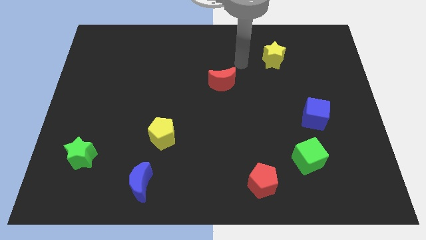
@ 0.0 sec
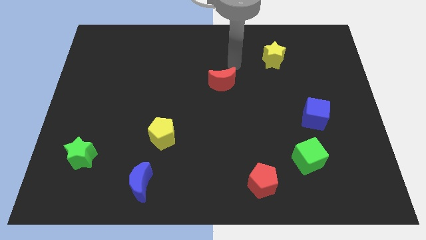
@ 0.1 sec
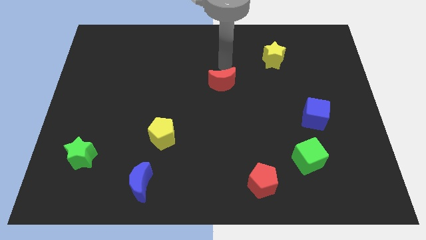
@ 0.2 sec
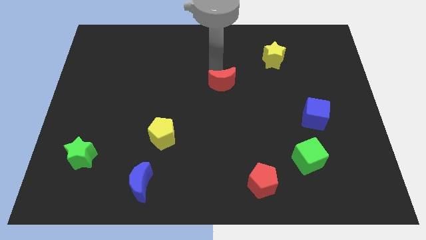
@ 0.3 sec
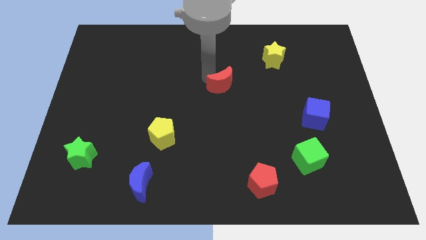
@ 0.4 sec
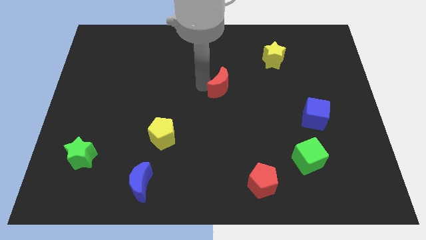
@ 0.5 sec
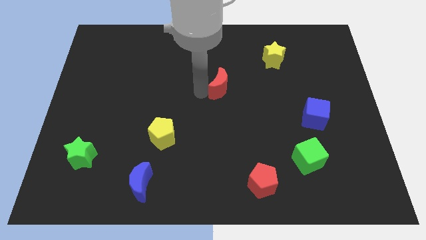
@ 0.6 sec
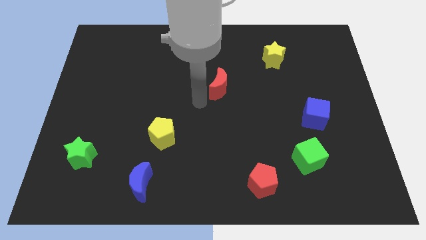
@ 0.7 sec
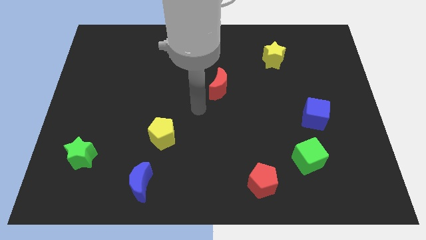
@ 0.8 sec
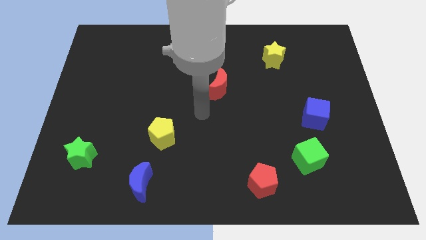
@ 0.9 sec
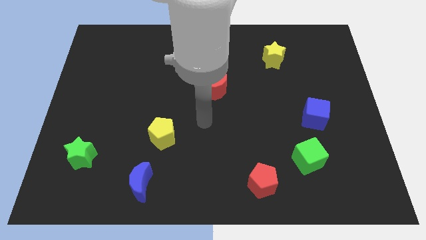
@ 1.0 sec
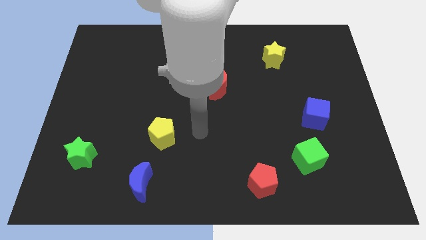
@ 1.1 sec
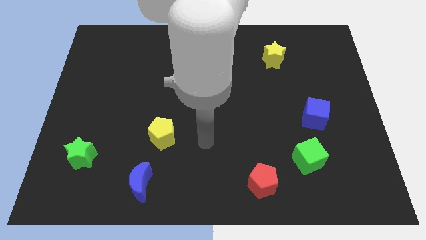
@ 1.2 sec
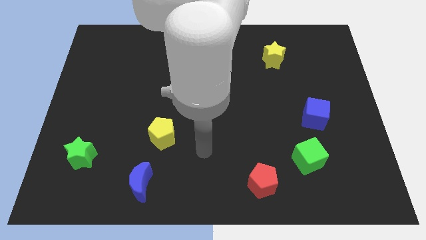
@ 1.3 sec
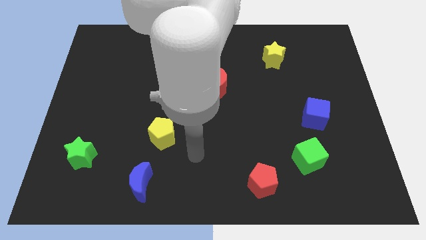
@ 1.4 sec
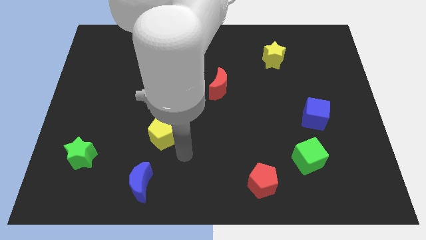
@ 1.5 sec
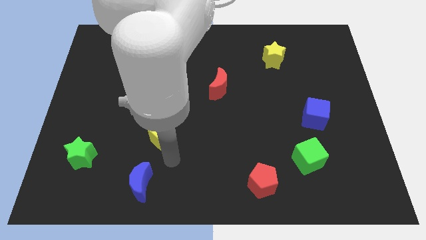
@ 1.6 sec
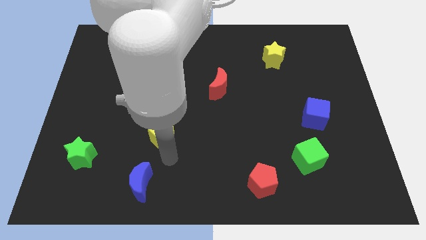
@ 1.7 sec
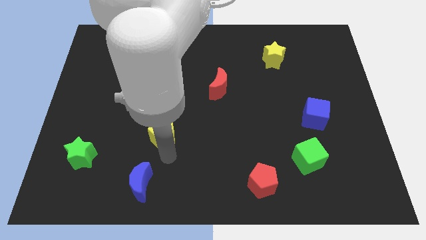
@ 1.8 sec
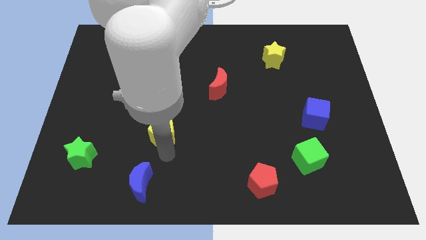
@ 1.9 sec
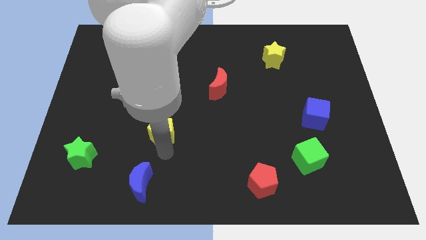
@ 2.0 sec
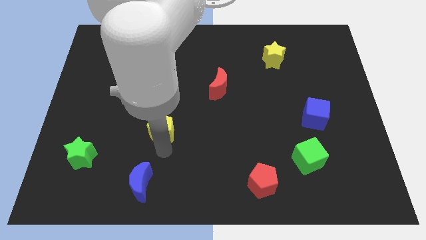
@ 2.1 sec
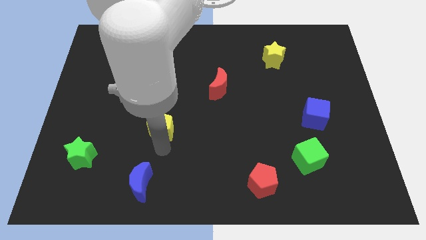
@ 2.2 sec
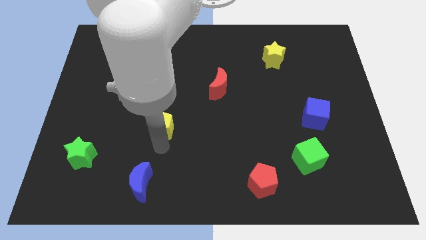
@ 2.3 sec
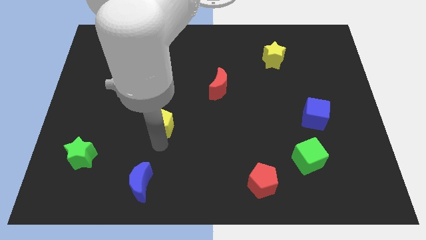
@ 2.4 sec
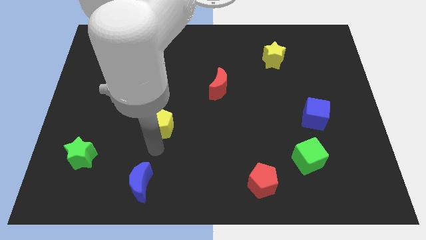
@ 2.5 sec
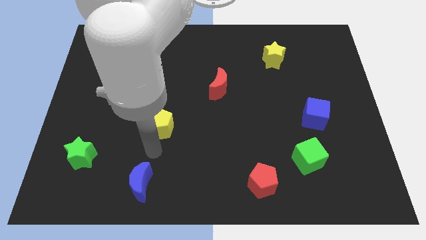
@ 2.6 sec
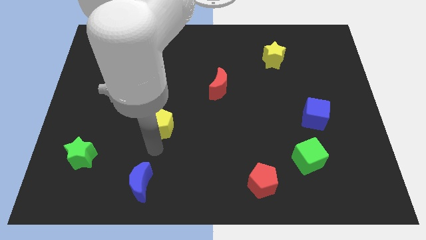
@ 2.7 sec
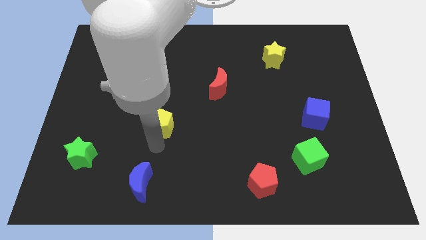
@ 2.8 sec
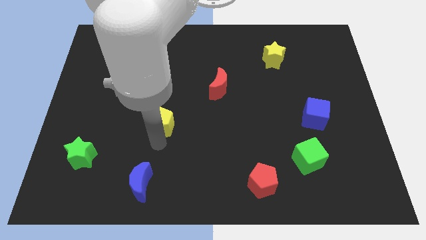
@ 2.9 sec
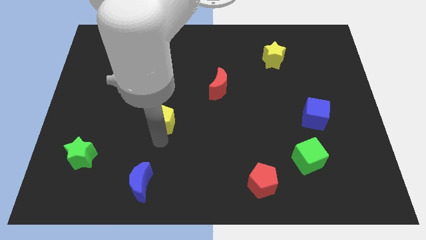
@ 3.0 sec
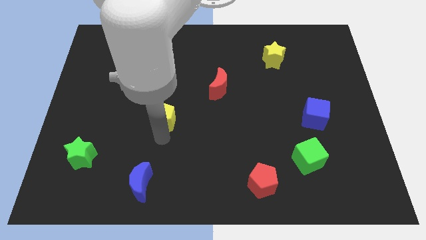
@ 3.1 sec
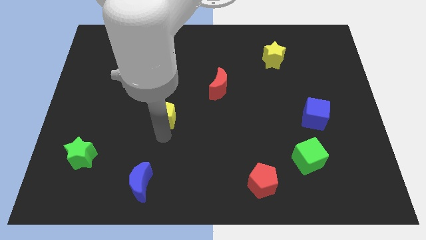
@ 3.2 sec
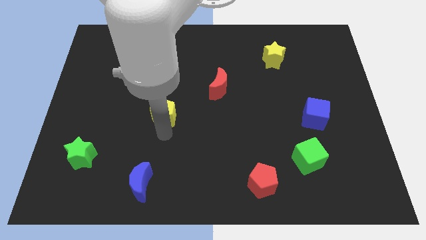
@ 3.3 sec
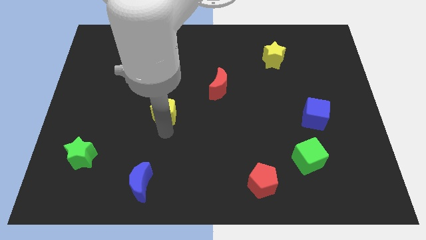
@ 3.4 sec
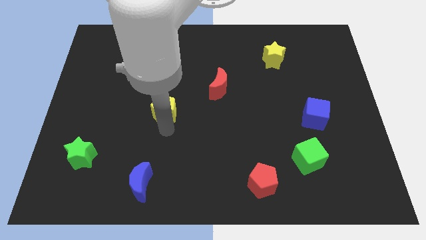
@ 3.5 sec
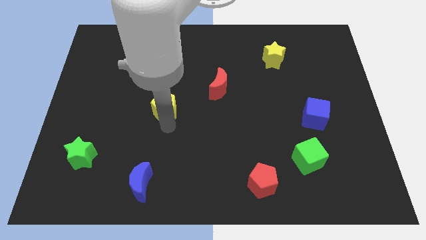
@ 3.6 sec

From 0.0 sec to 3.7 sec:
slightly push the yellow pentagon upwards

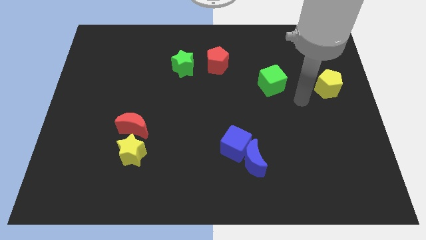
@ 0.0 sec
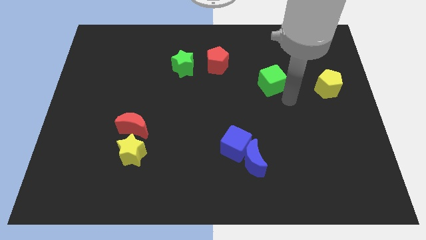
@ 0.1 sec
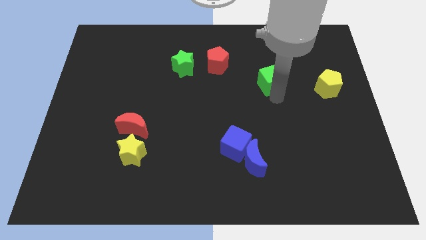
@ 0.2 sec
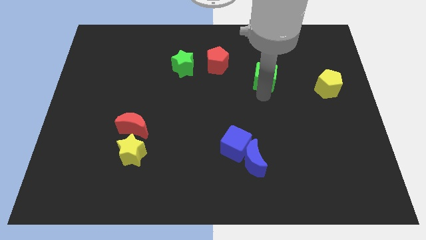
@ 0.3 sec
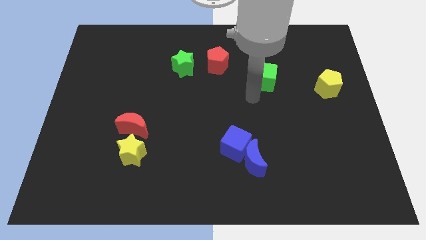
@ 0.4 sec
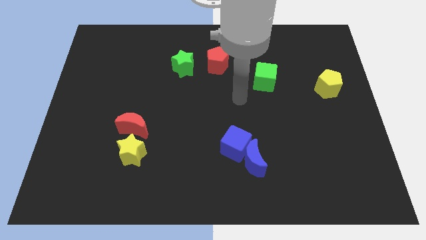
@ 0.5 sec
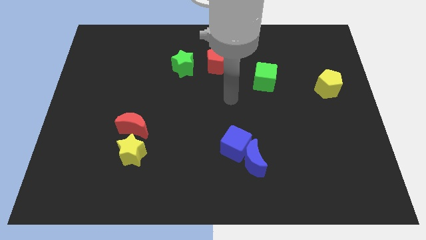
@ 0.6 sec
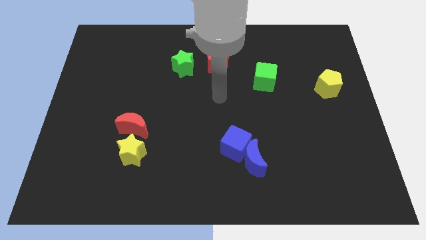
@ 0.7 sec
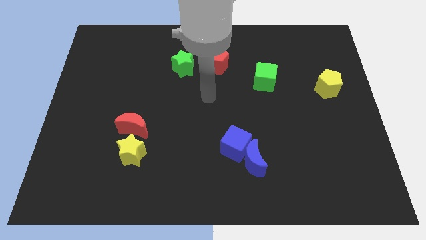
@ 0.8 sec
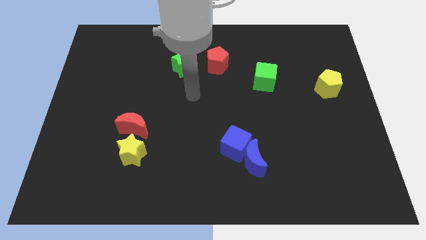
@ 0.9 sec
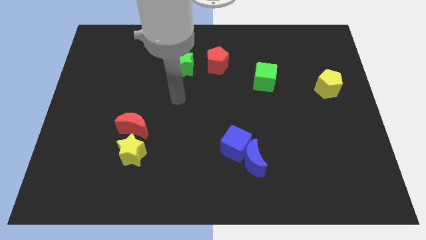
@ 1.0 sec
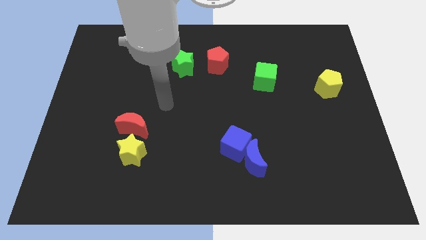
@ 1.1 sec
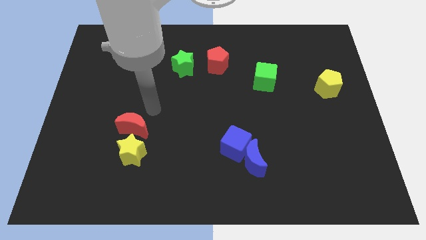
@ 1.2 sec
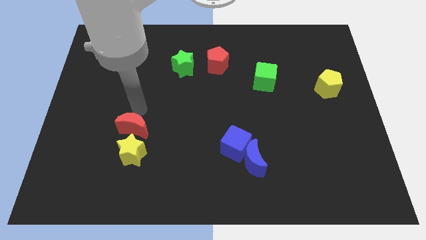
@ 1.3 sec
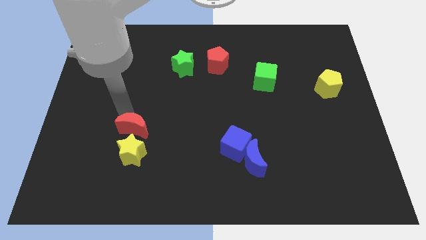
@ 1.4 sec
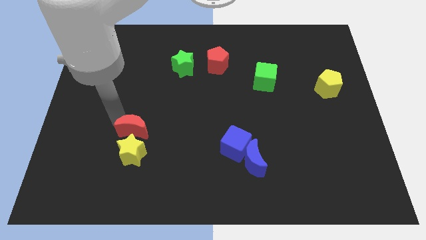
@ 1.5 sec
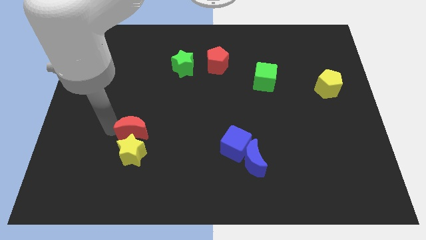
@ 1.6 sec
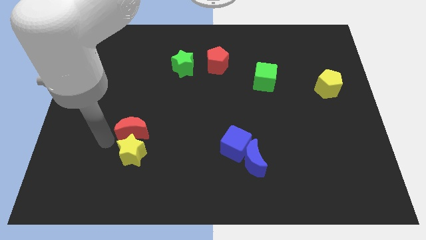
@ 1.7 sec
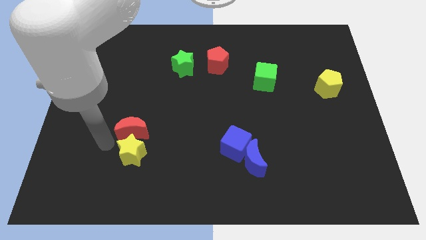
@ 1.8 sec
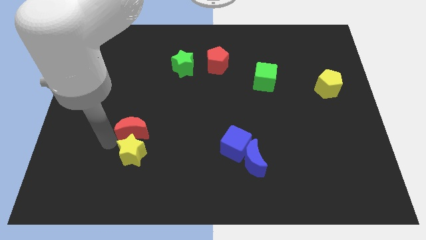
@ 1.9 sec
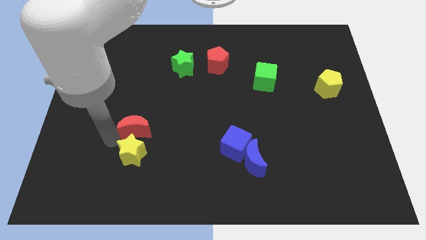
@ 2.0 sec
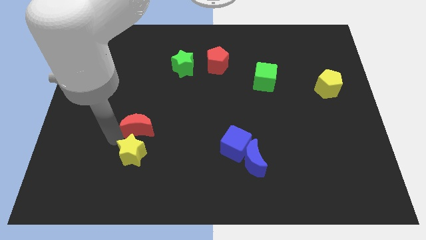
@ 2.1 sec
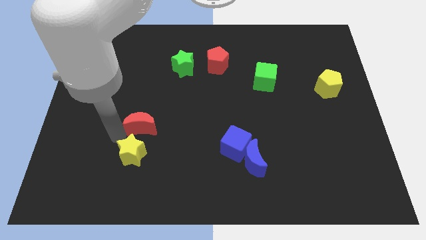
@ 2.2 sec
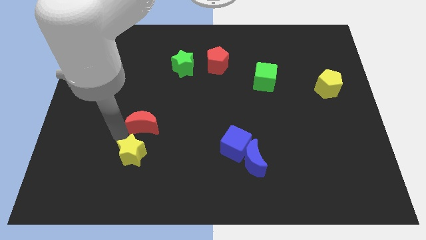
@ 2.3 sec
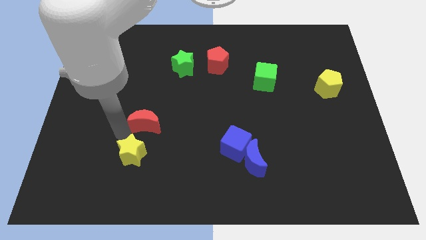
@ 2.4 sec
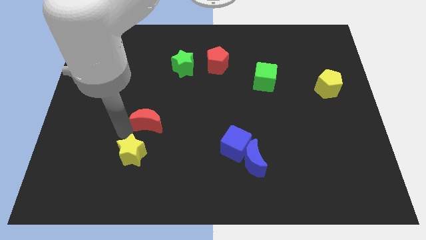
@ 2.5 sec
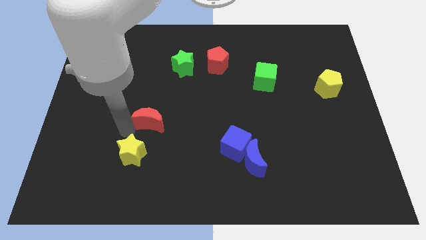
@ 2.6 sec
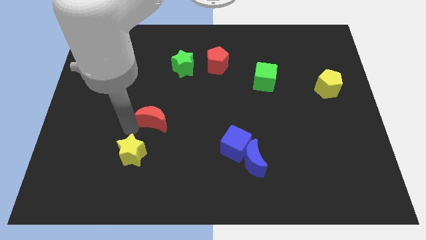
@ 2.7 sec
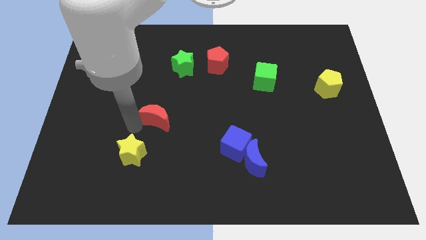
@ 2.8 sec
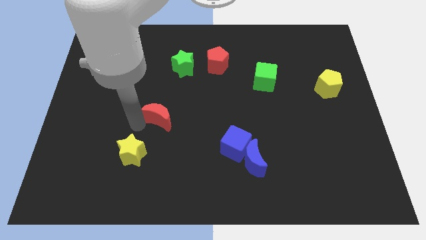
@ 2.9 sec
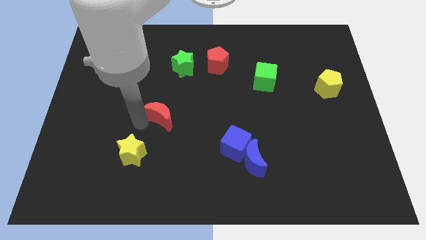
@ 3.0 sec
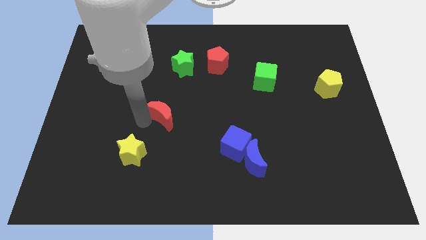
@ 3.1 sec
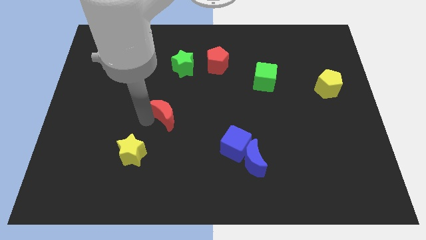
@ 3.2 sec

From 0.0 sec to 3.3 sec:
slightly slide the red moon diagonally up and to the right

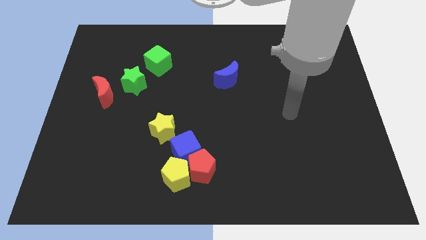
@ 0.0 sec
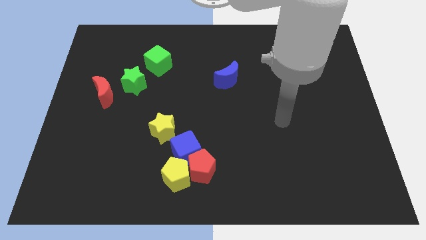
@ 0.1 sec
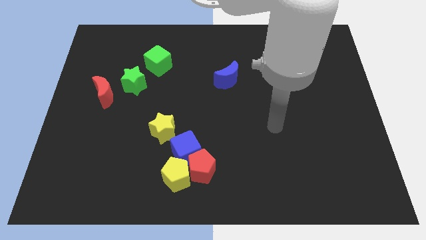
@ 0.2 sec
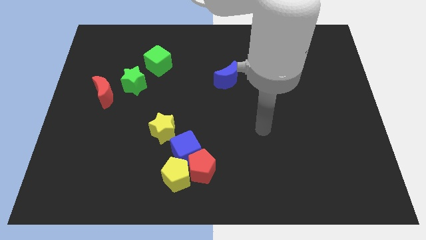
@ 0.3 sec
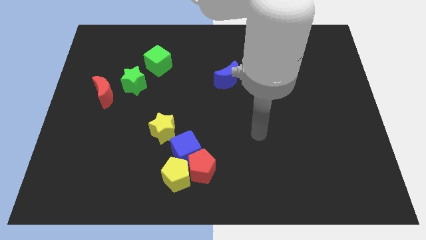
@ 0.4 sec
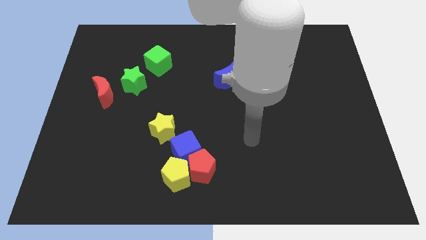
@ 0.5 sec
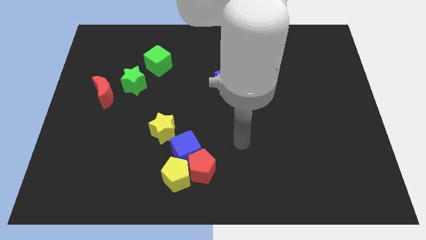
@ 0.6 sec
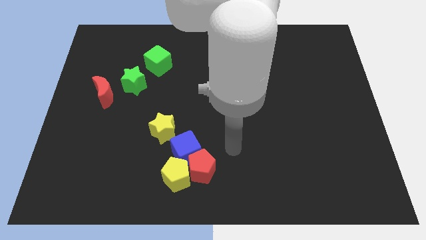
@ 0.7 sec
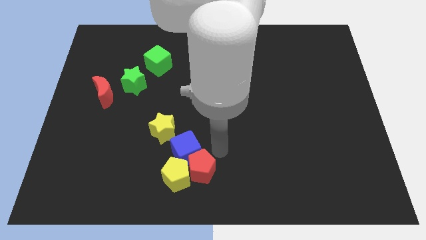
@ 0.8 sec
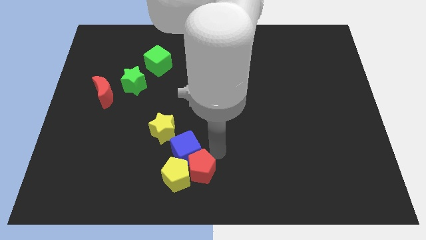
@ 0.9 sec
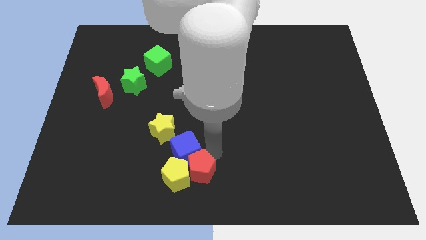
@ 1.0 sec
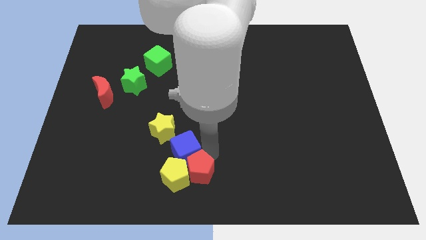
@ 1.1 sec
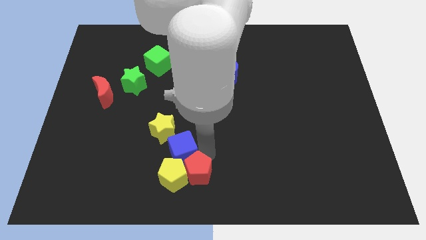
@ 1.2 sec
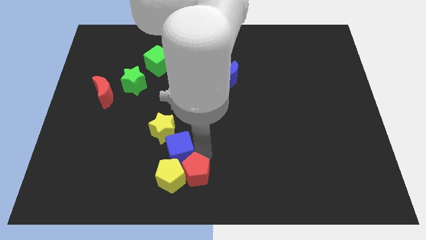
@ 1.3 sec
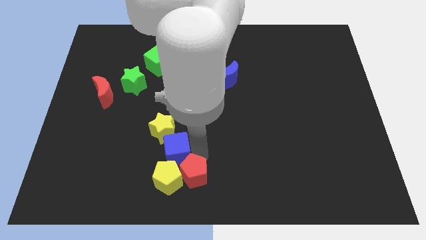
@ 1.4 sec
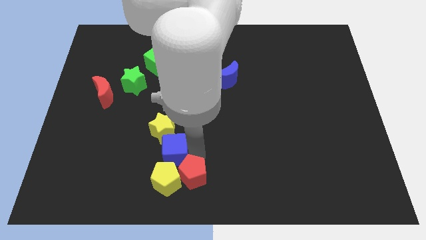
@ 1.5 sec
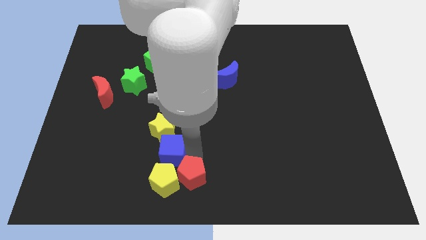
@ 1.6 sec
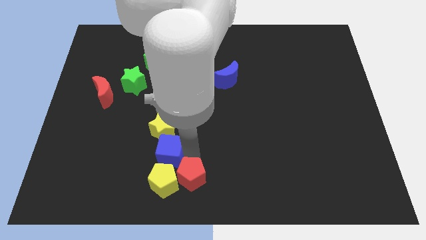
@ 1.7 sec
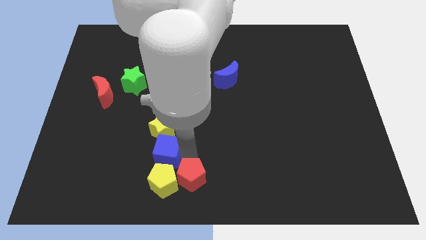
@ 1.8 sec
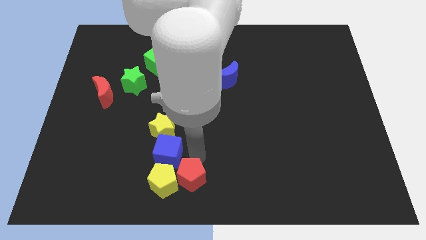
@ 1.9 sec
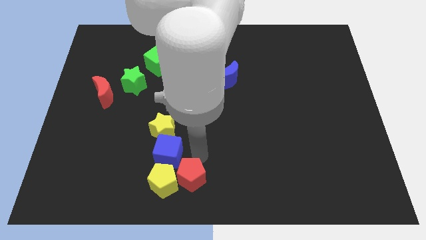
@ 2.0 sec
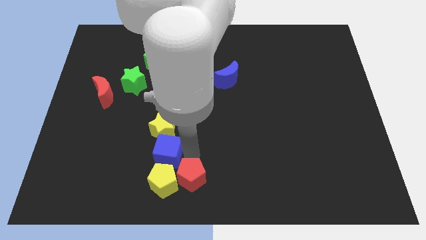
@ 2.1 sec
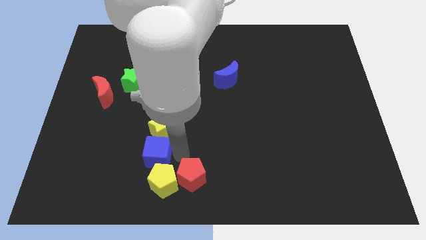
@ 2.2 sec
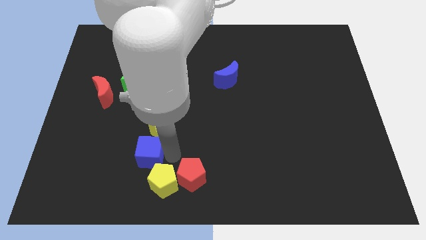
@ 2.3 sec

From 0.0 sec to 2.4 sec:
push the blue cube slightly to the left
